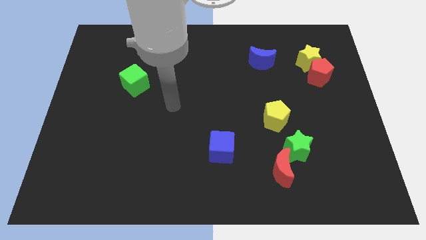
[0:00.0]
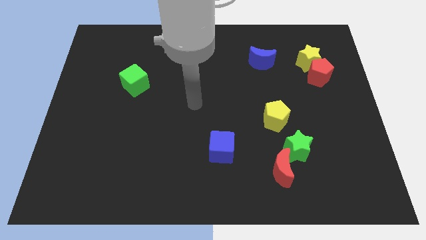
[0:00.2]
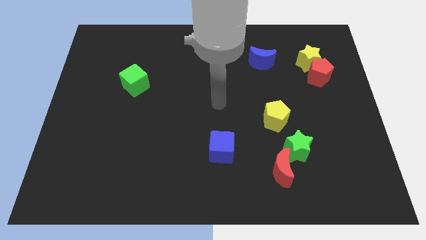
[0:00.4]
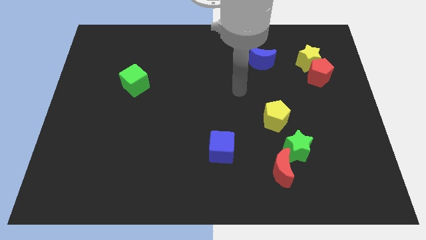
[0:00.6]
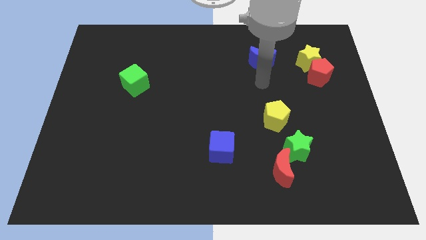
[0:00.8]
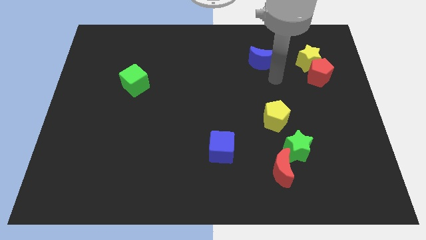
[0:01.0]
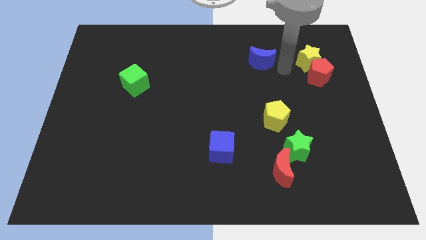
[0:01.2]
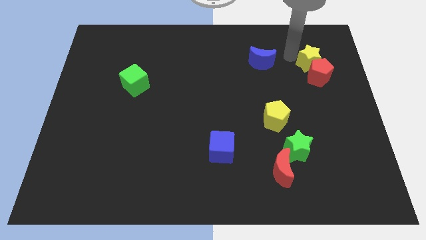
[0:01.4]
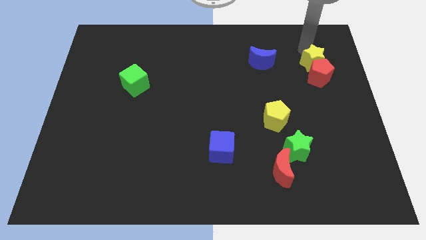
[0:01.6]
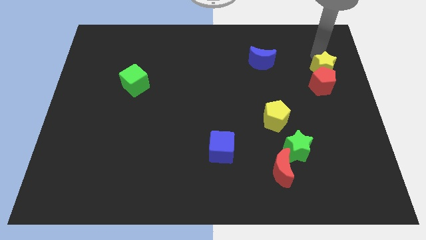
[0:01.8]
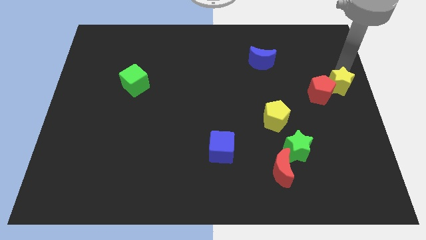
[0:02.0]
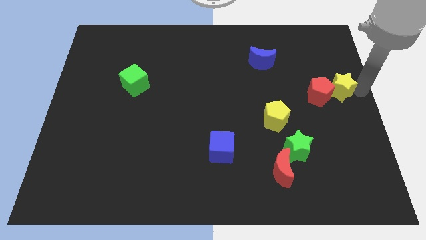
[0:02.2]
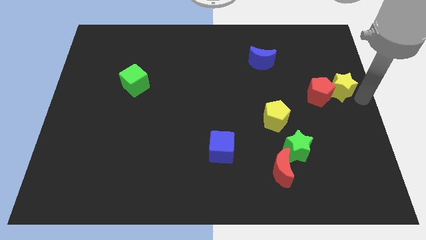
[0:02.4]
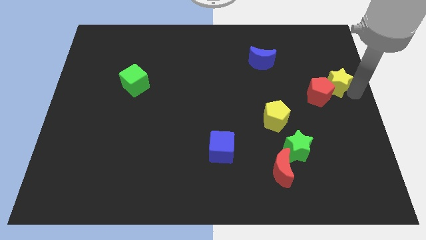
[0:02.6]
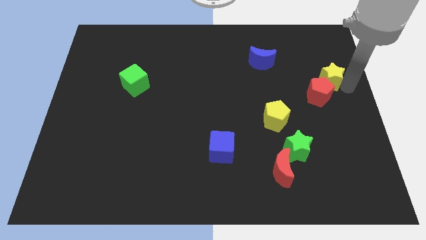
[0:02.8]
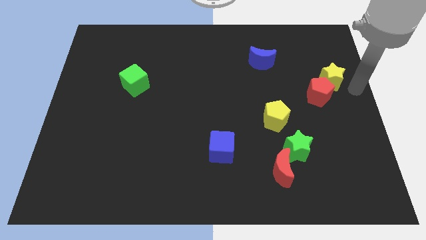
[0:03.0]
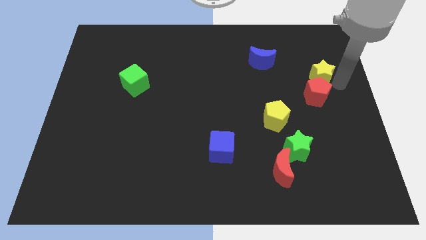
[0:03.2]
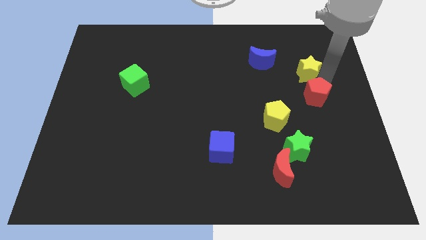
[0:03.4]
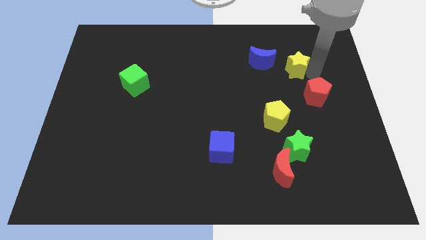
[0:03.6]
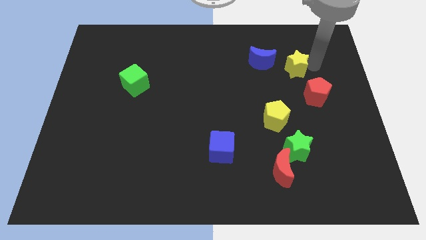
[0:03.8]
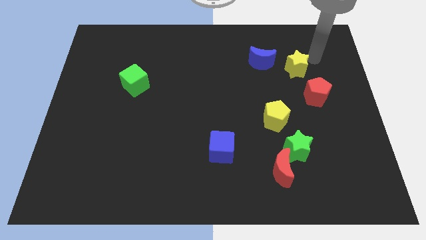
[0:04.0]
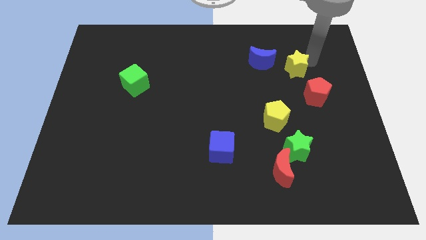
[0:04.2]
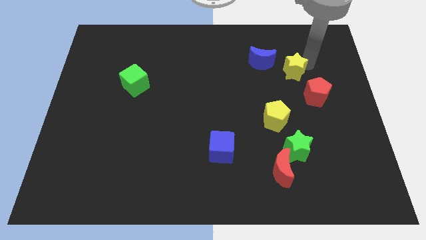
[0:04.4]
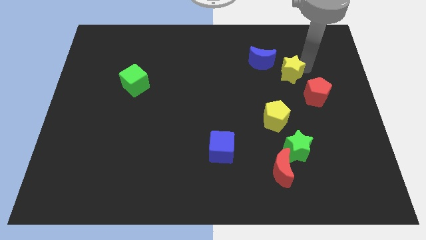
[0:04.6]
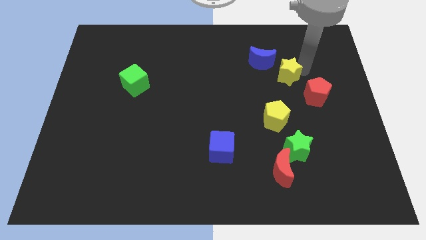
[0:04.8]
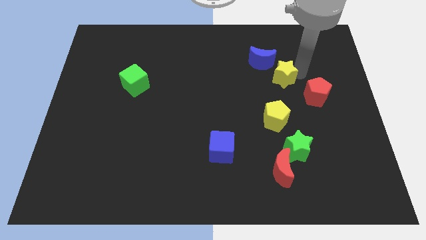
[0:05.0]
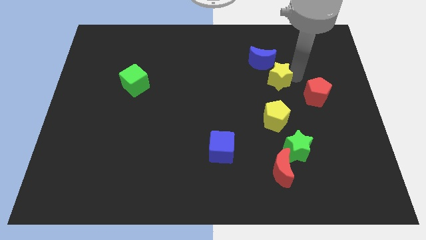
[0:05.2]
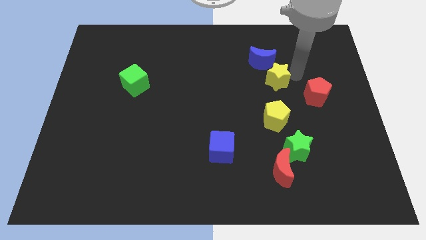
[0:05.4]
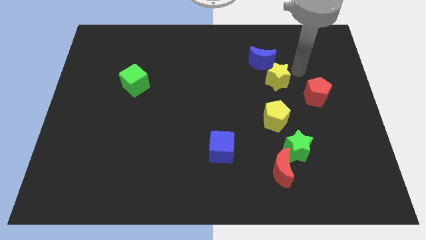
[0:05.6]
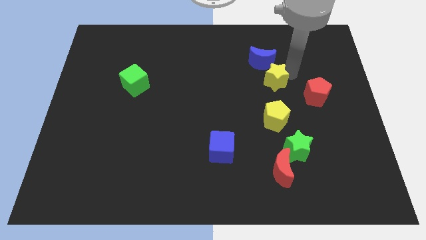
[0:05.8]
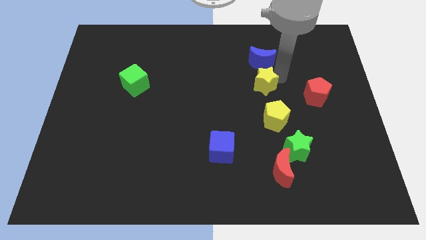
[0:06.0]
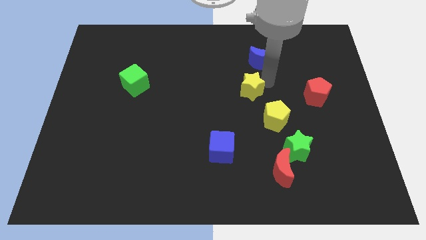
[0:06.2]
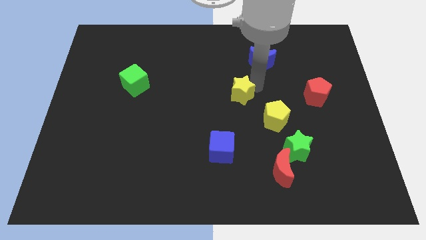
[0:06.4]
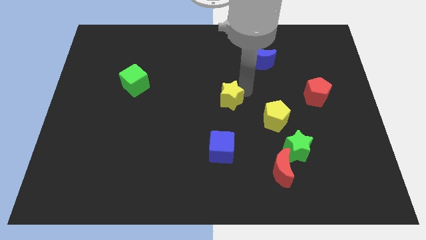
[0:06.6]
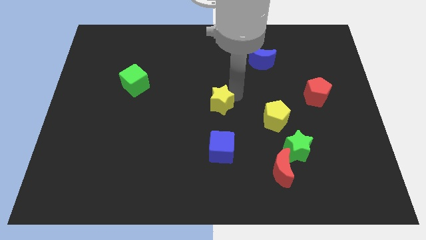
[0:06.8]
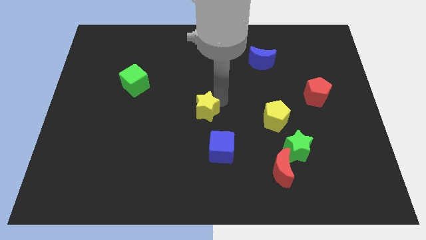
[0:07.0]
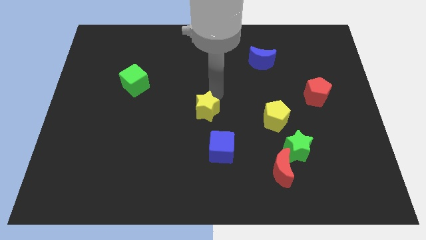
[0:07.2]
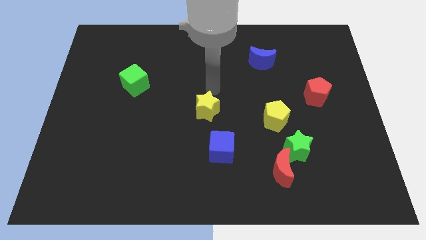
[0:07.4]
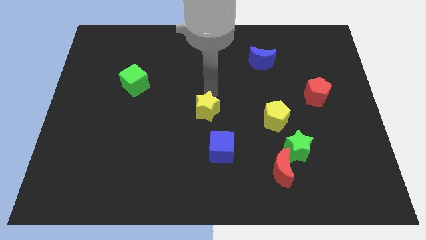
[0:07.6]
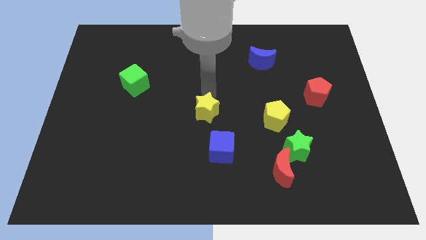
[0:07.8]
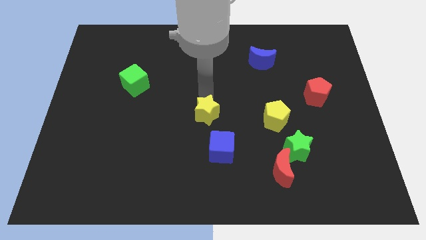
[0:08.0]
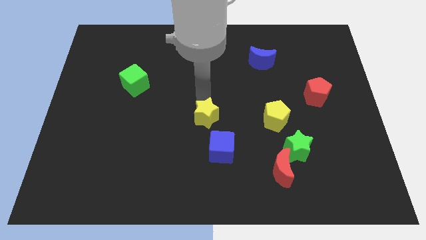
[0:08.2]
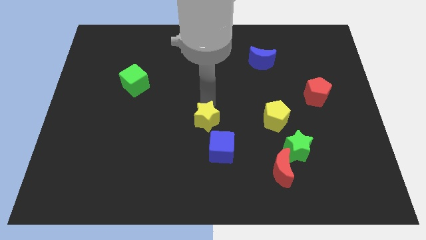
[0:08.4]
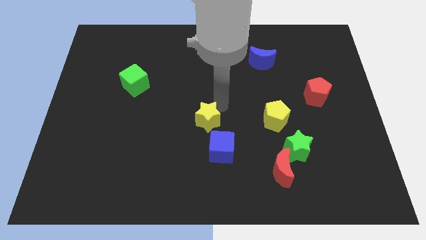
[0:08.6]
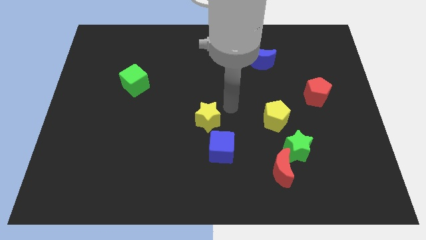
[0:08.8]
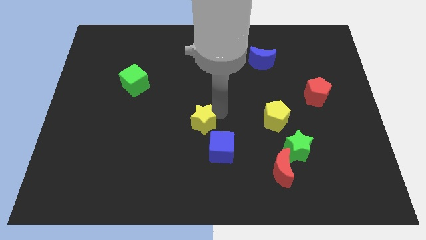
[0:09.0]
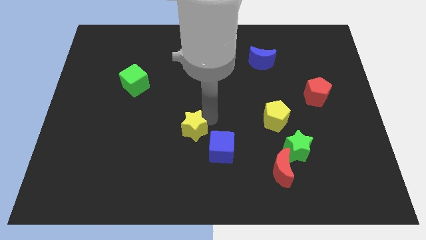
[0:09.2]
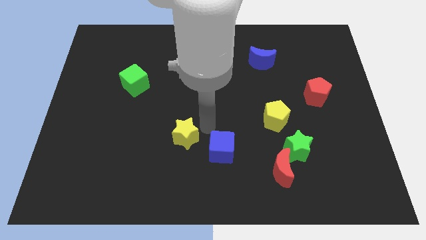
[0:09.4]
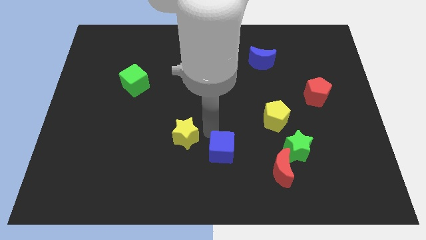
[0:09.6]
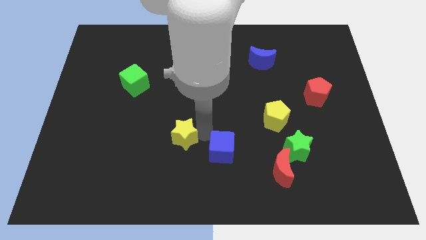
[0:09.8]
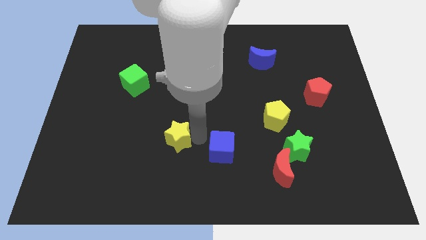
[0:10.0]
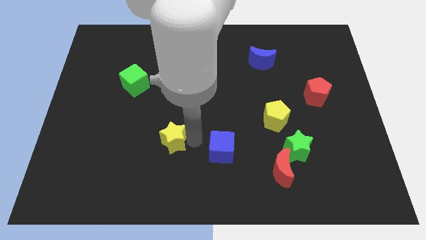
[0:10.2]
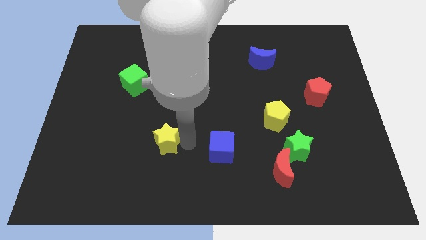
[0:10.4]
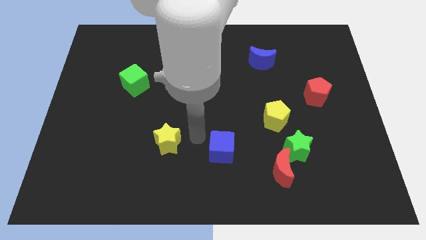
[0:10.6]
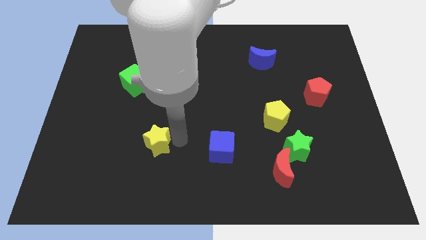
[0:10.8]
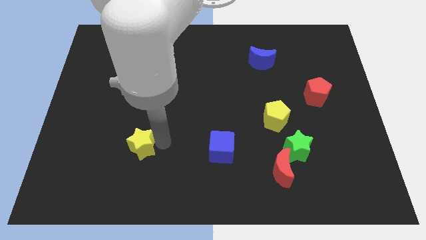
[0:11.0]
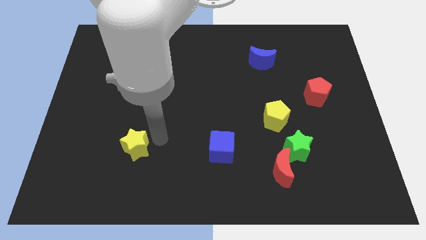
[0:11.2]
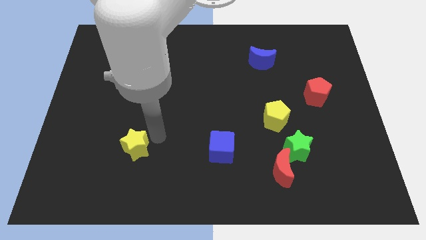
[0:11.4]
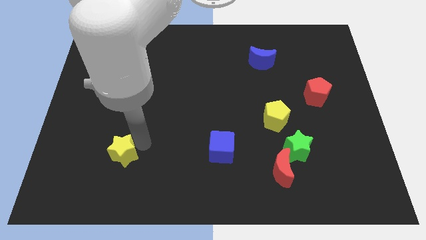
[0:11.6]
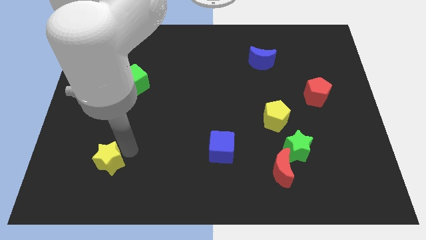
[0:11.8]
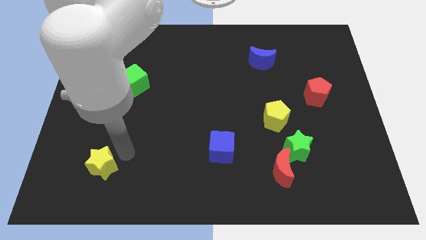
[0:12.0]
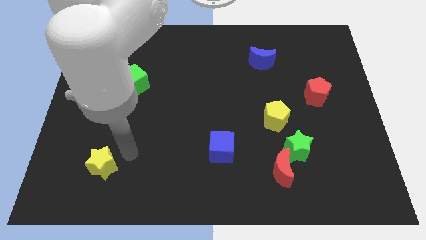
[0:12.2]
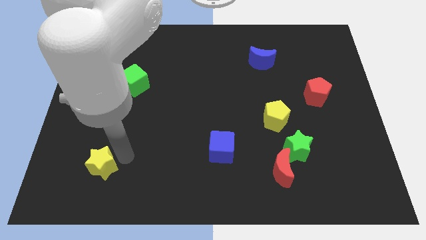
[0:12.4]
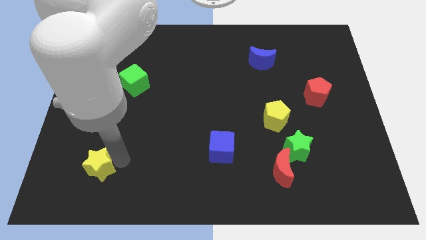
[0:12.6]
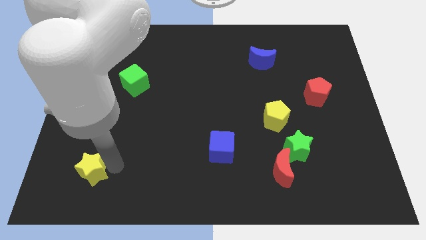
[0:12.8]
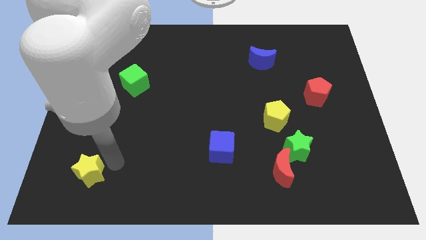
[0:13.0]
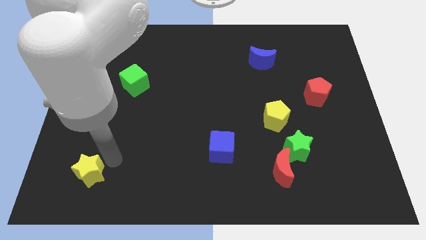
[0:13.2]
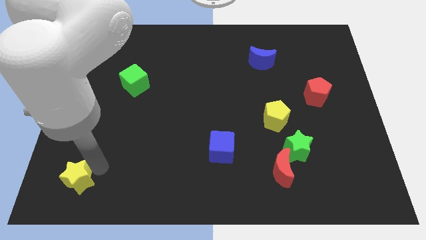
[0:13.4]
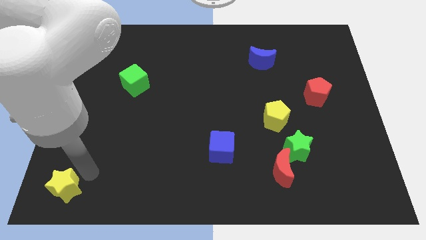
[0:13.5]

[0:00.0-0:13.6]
put the yellow star to the bottom left of the board
